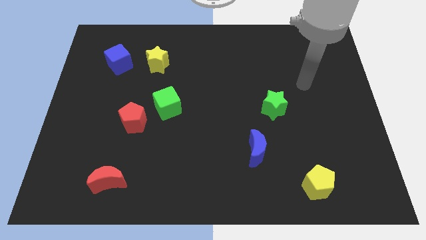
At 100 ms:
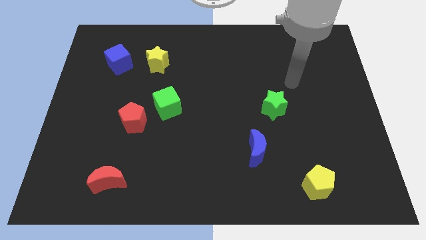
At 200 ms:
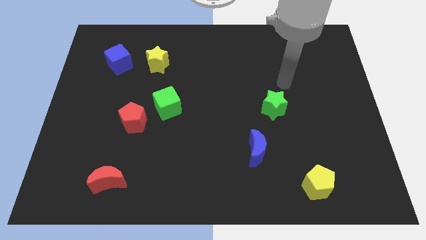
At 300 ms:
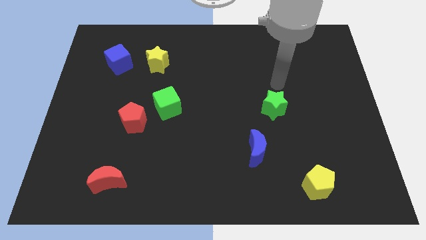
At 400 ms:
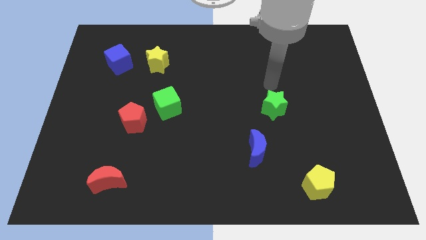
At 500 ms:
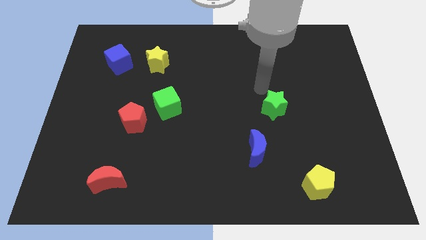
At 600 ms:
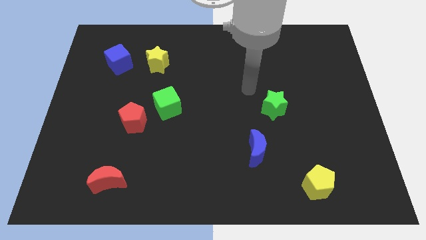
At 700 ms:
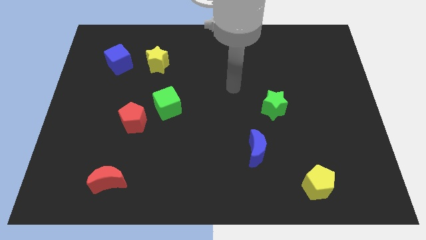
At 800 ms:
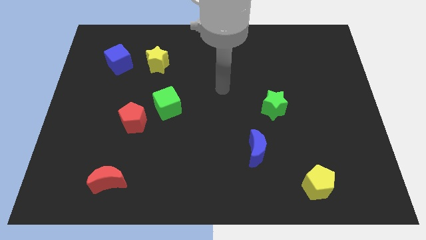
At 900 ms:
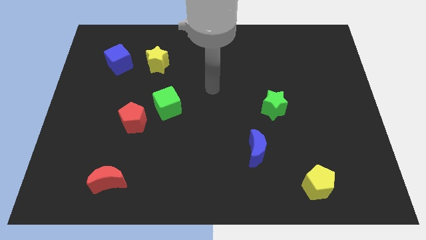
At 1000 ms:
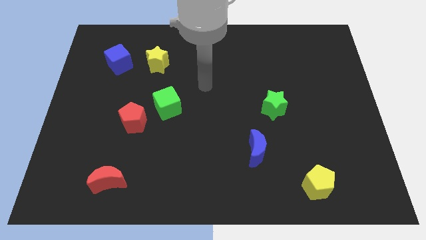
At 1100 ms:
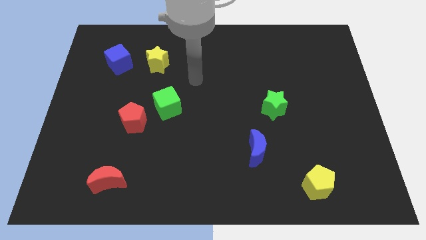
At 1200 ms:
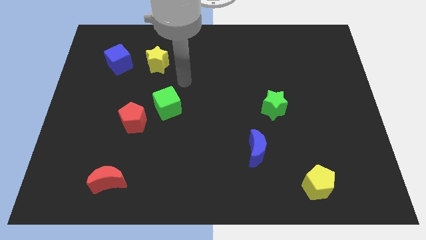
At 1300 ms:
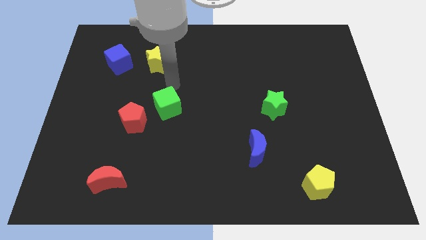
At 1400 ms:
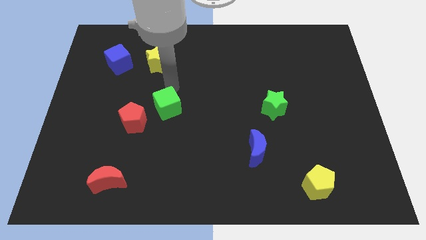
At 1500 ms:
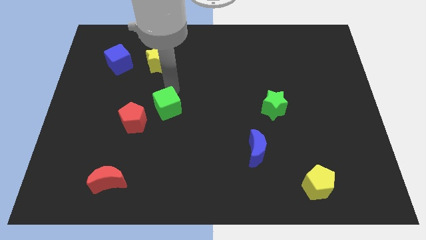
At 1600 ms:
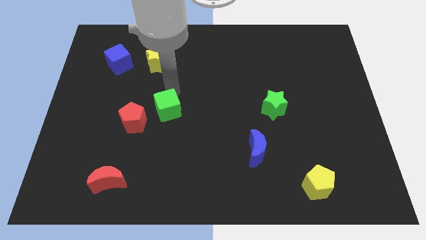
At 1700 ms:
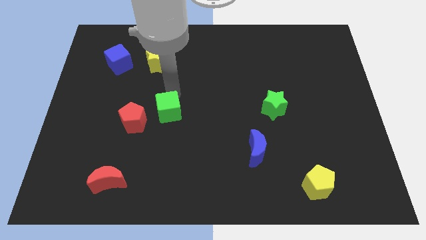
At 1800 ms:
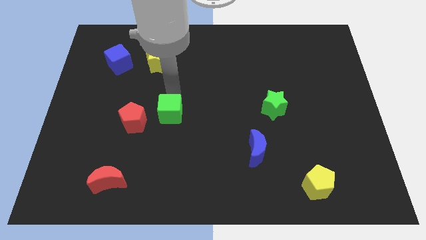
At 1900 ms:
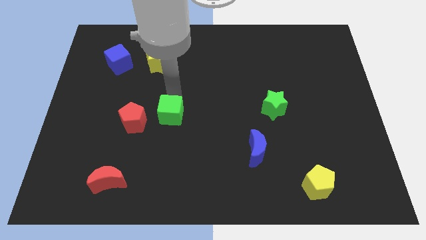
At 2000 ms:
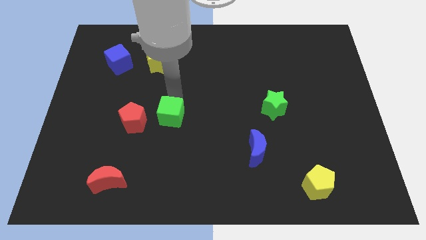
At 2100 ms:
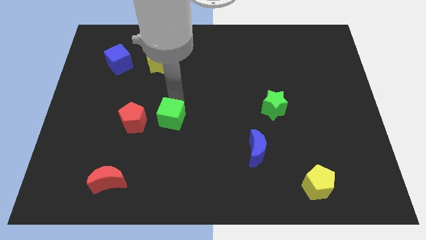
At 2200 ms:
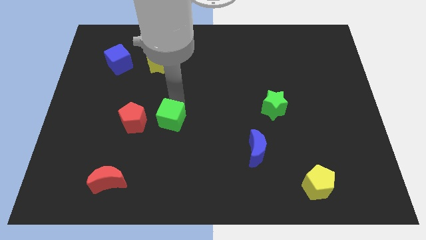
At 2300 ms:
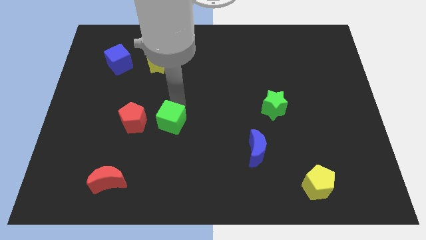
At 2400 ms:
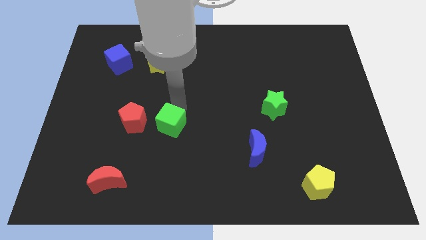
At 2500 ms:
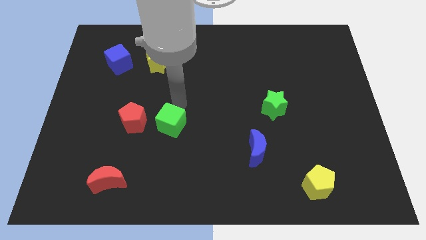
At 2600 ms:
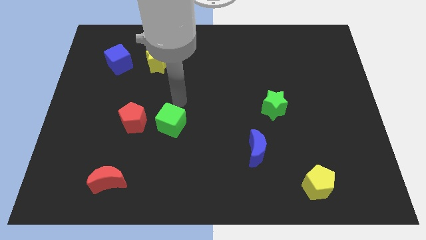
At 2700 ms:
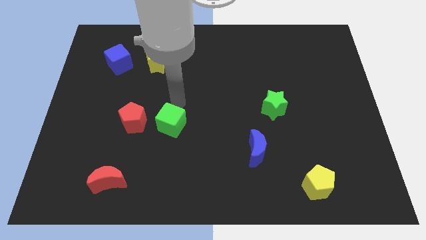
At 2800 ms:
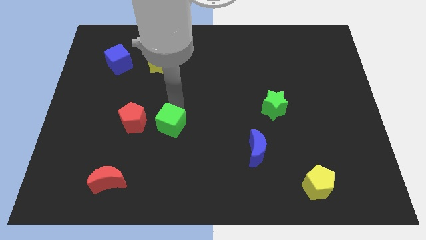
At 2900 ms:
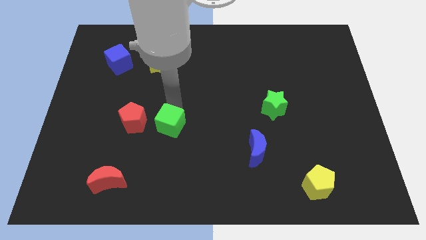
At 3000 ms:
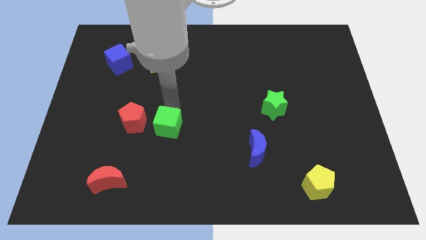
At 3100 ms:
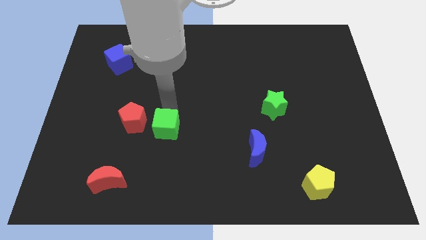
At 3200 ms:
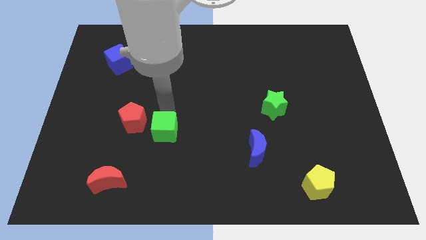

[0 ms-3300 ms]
push the green cube downwards a little bit

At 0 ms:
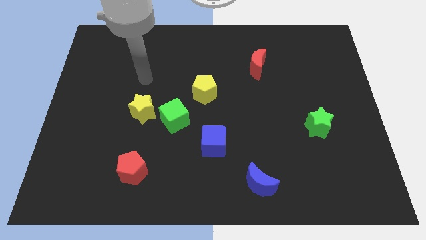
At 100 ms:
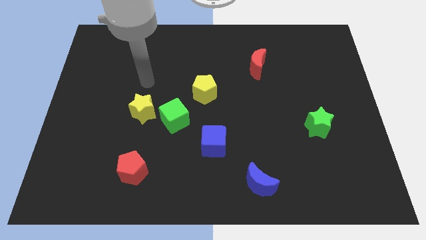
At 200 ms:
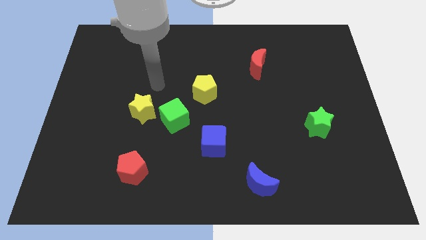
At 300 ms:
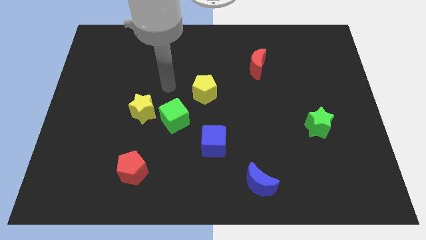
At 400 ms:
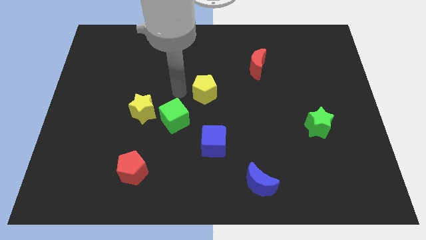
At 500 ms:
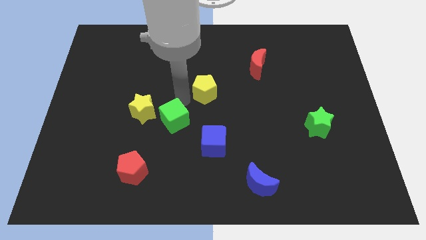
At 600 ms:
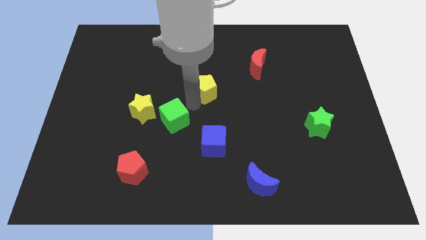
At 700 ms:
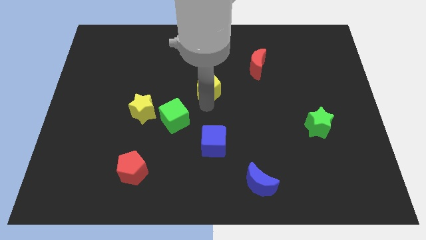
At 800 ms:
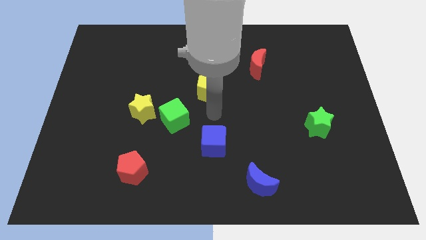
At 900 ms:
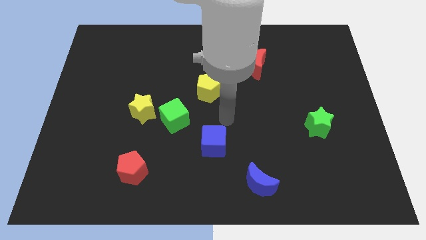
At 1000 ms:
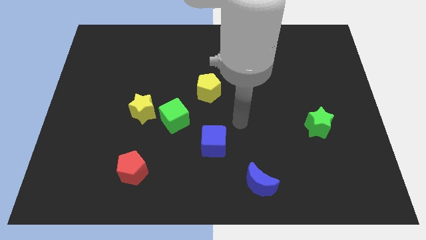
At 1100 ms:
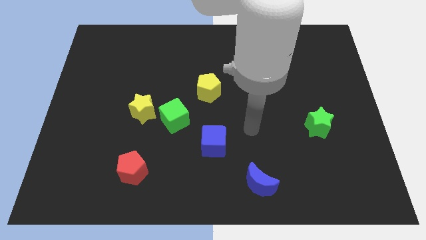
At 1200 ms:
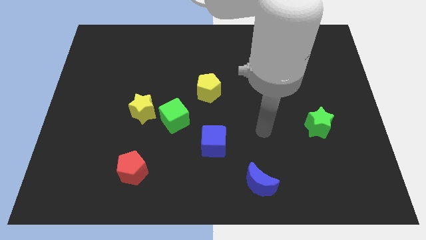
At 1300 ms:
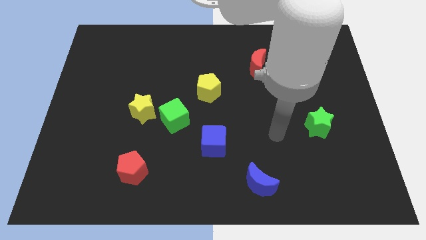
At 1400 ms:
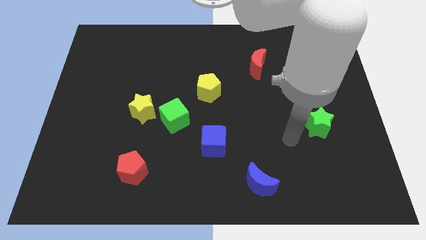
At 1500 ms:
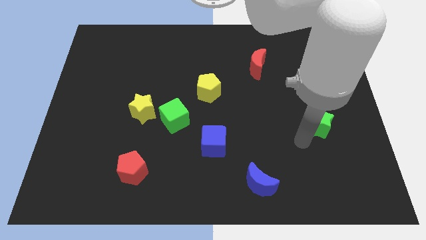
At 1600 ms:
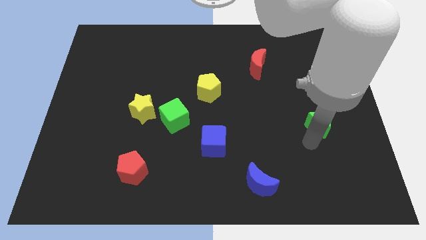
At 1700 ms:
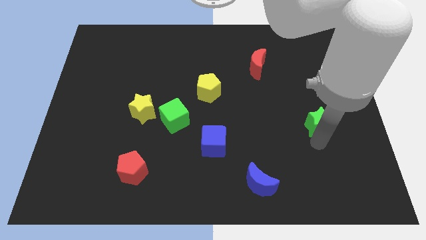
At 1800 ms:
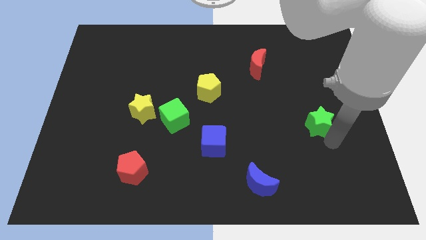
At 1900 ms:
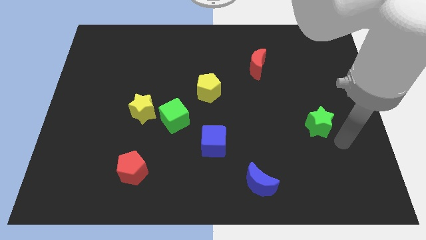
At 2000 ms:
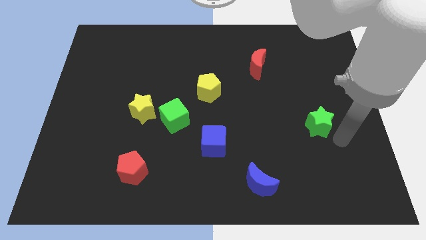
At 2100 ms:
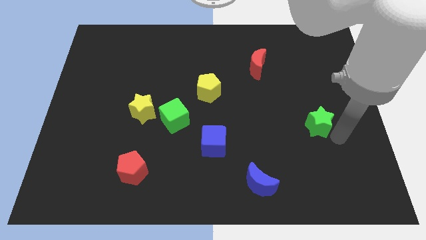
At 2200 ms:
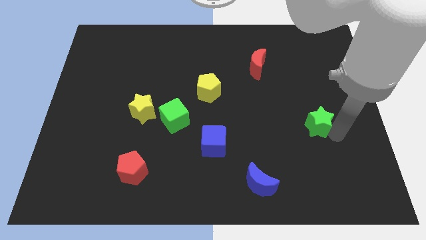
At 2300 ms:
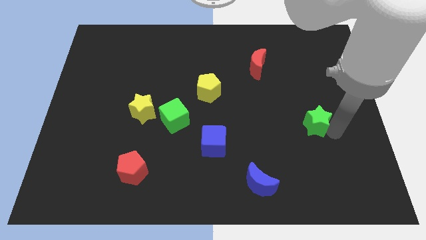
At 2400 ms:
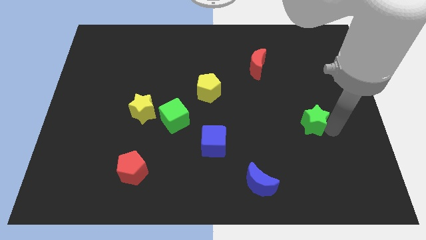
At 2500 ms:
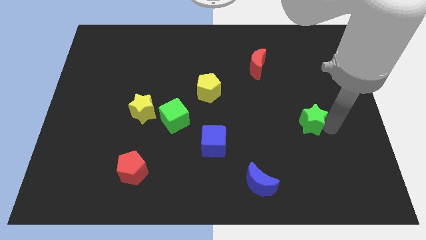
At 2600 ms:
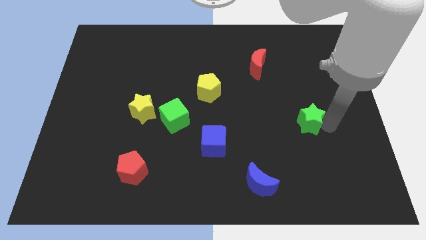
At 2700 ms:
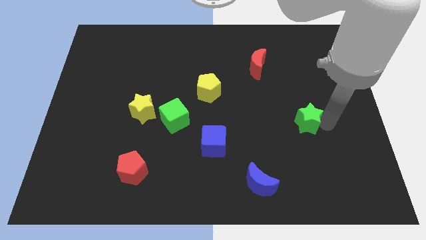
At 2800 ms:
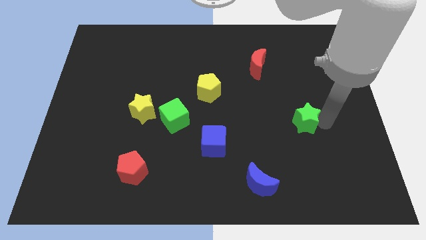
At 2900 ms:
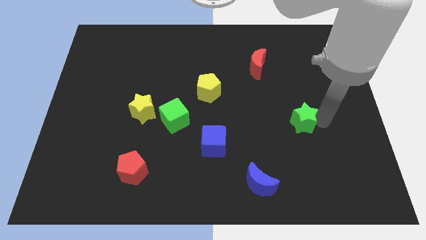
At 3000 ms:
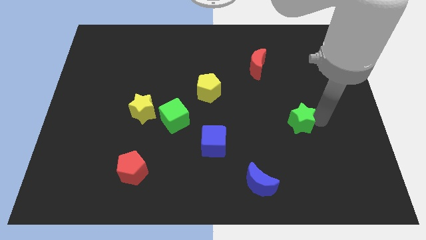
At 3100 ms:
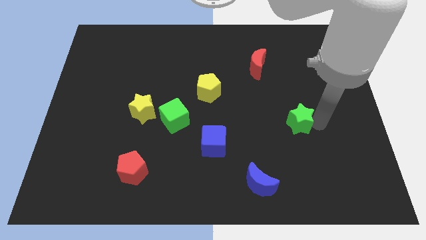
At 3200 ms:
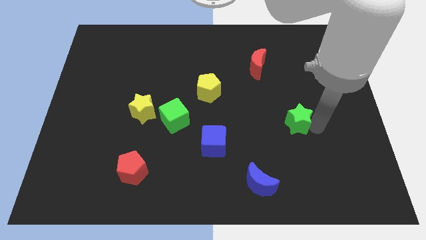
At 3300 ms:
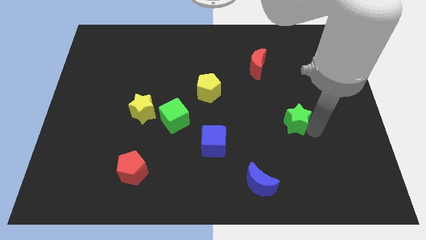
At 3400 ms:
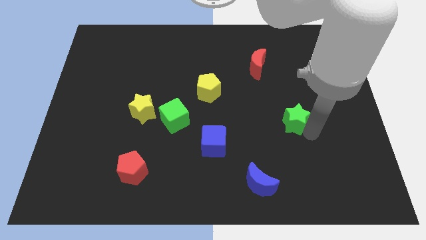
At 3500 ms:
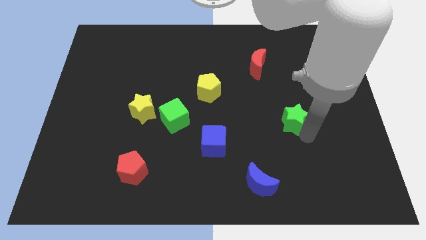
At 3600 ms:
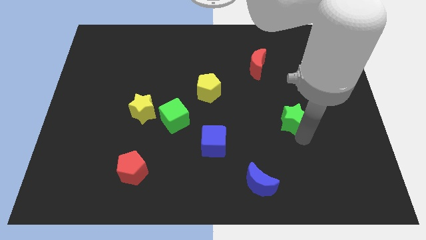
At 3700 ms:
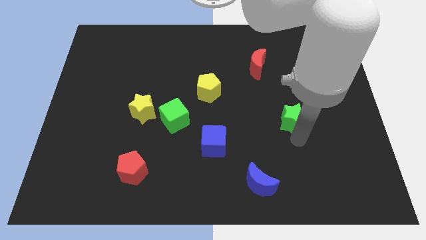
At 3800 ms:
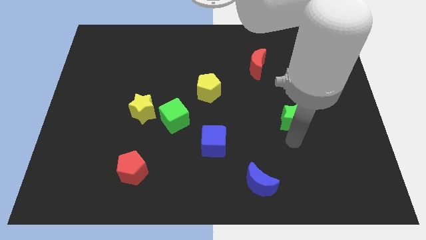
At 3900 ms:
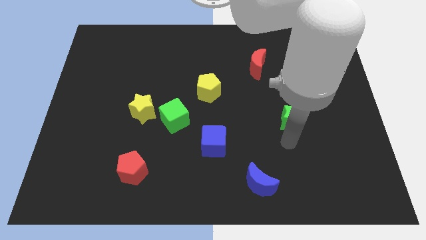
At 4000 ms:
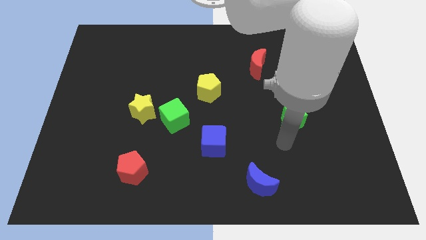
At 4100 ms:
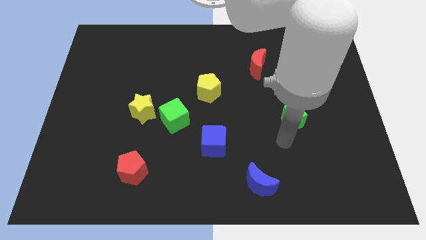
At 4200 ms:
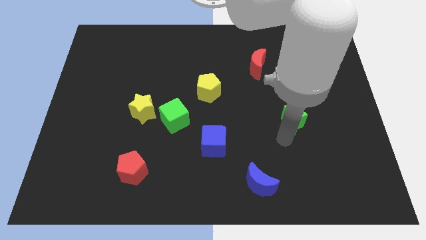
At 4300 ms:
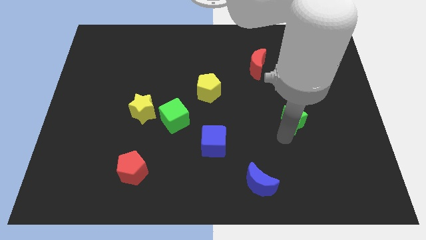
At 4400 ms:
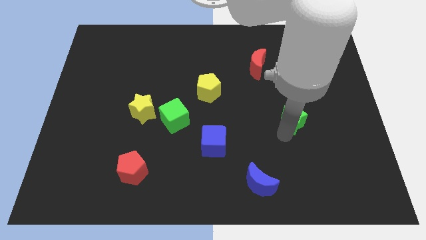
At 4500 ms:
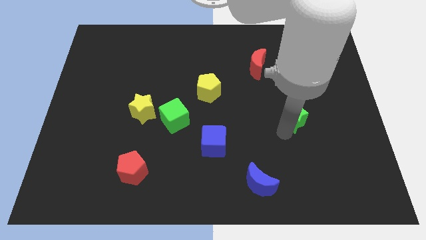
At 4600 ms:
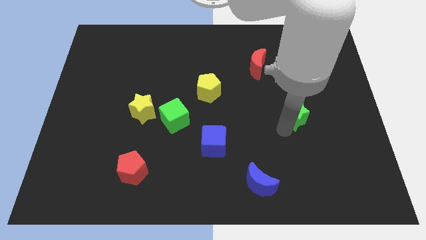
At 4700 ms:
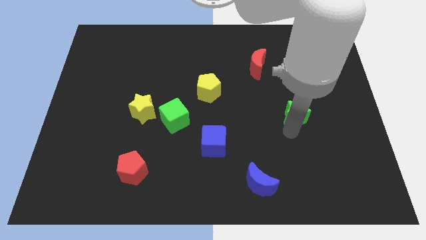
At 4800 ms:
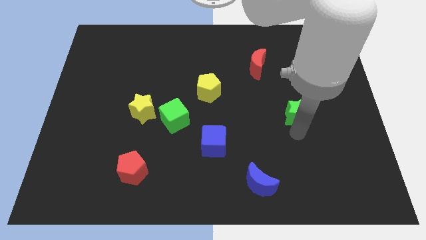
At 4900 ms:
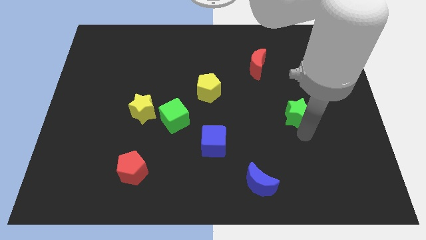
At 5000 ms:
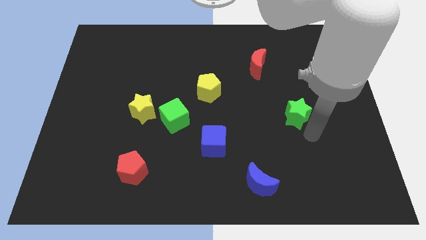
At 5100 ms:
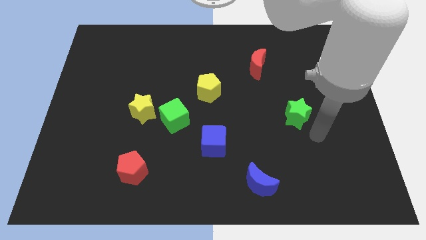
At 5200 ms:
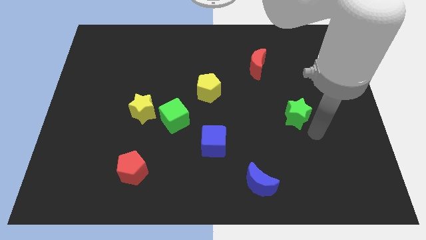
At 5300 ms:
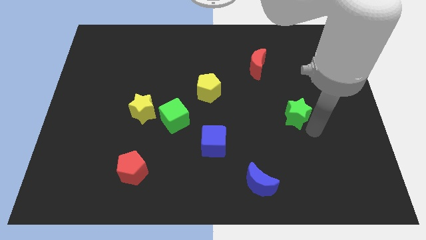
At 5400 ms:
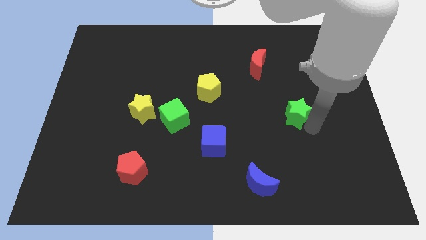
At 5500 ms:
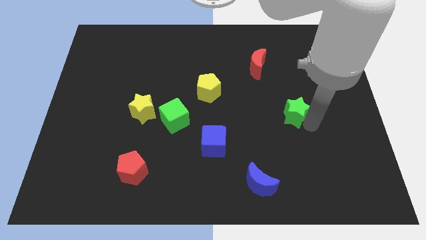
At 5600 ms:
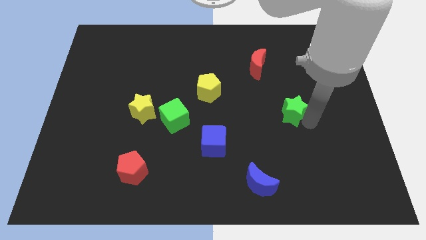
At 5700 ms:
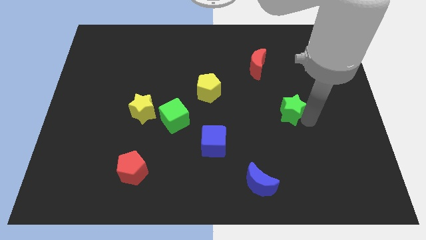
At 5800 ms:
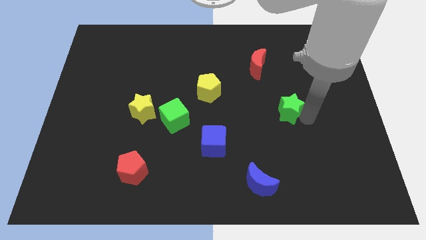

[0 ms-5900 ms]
move the green star a little bit up and left
